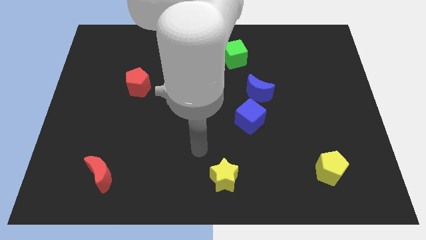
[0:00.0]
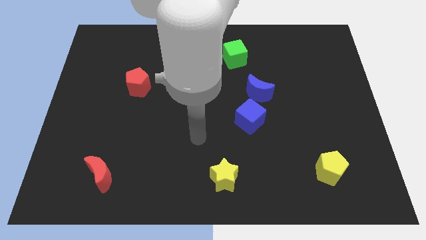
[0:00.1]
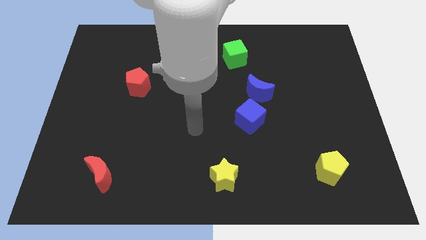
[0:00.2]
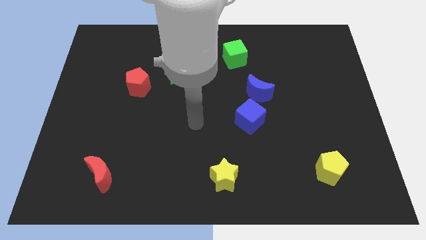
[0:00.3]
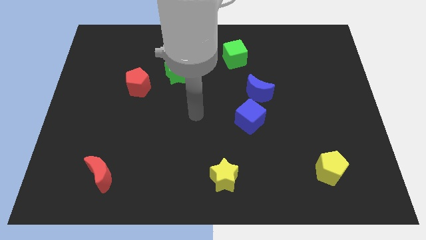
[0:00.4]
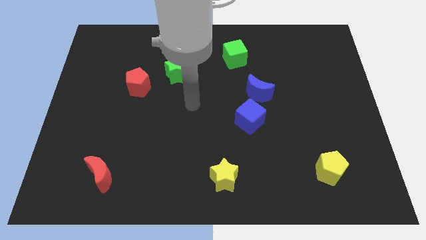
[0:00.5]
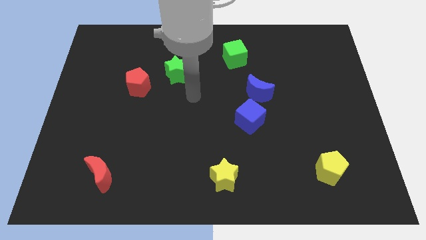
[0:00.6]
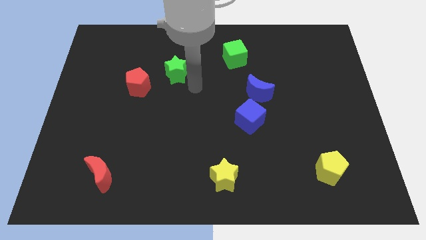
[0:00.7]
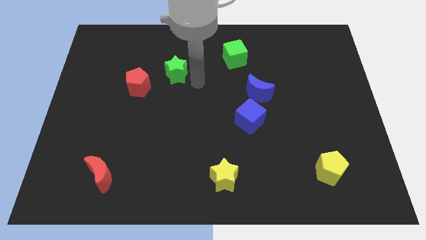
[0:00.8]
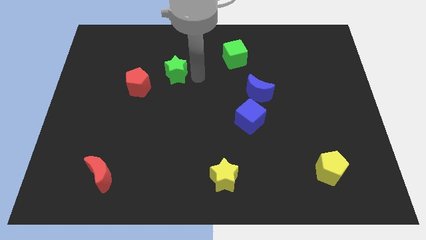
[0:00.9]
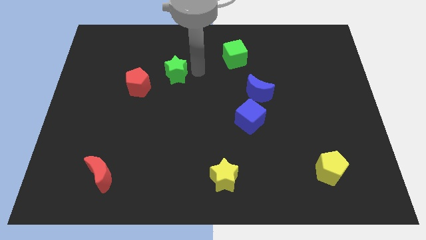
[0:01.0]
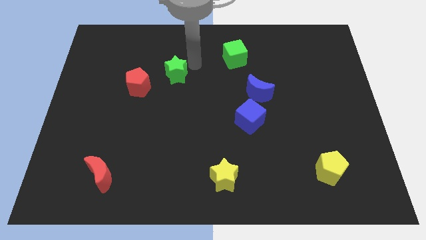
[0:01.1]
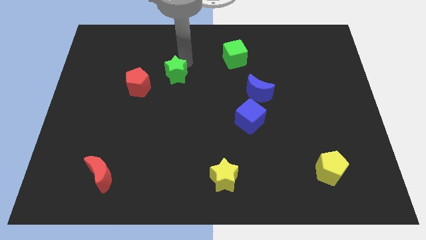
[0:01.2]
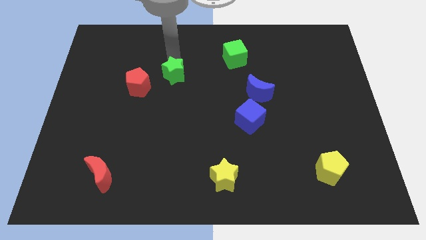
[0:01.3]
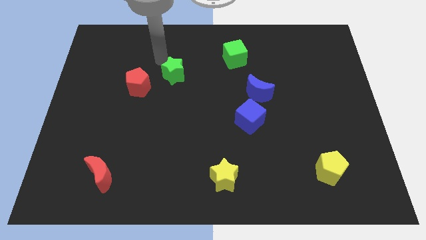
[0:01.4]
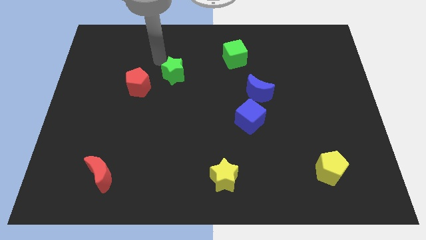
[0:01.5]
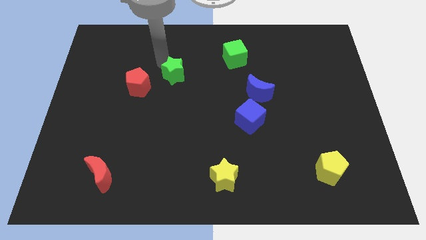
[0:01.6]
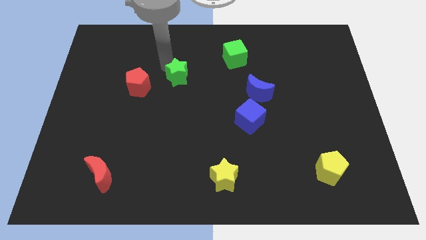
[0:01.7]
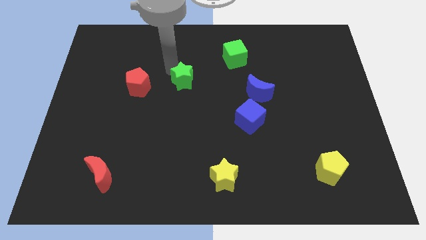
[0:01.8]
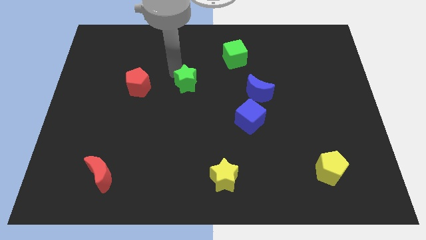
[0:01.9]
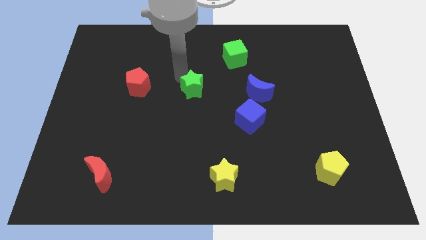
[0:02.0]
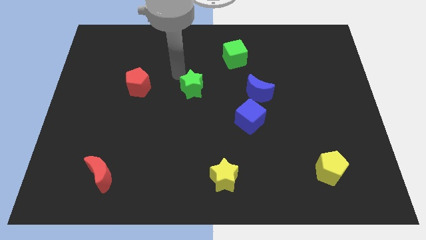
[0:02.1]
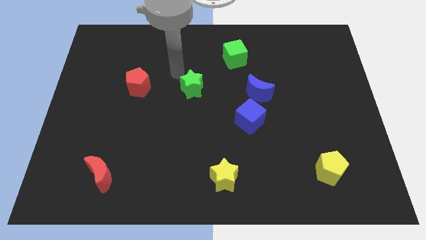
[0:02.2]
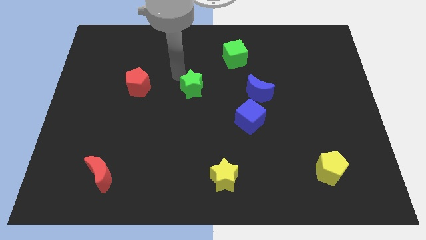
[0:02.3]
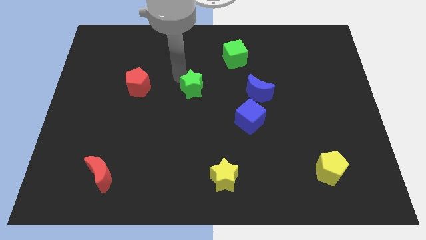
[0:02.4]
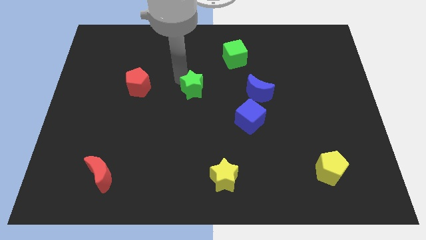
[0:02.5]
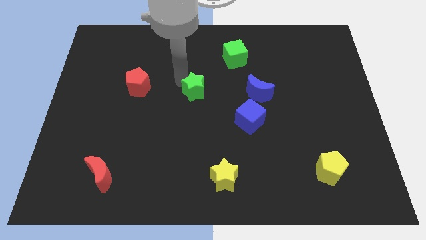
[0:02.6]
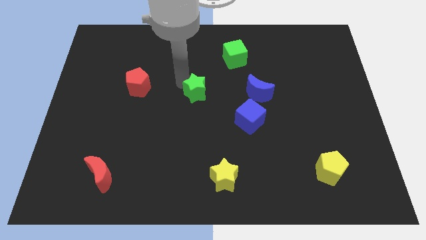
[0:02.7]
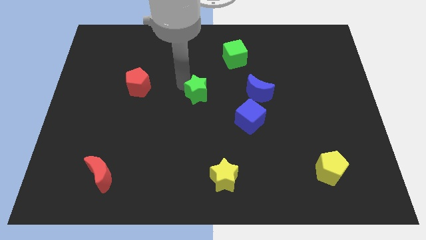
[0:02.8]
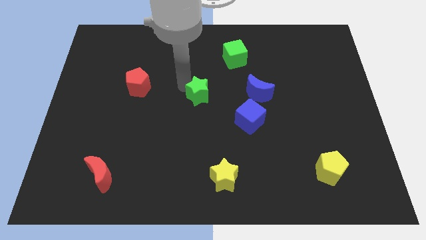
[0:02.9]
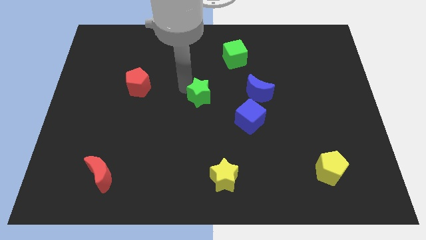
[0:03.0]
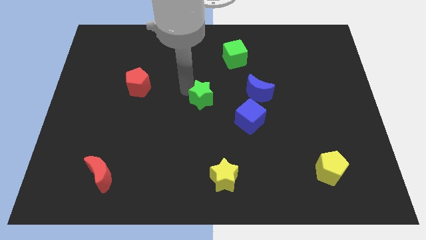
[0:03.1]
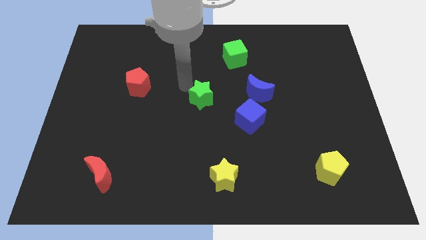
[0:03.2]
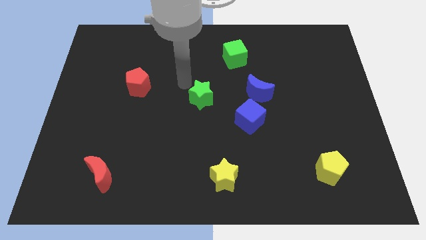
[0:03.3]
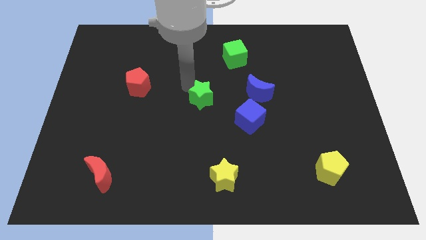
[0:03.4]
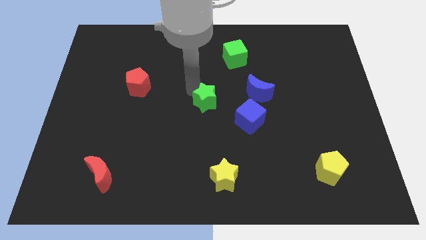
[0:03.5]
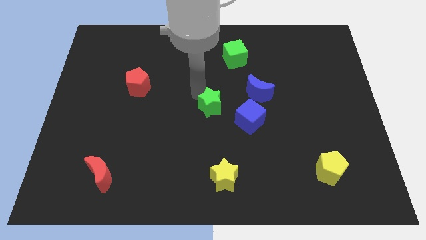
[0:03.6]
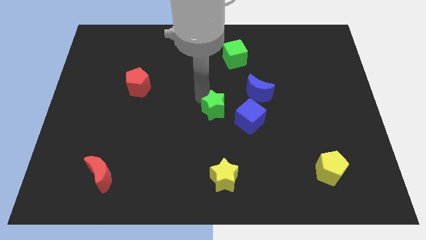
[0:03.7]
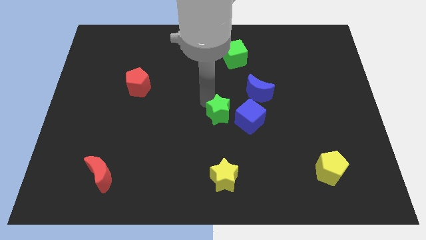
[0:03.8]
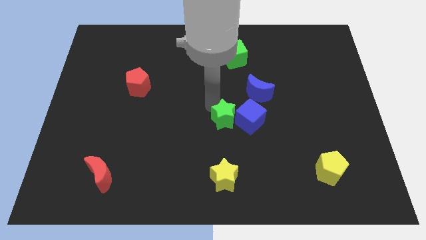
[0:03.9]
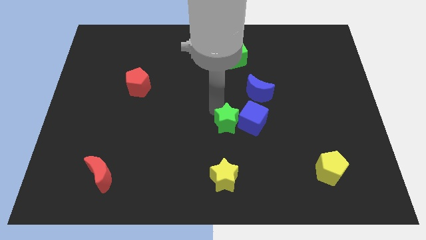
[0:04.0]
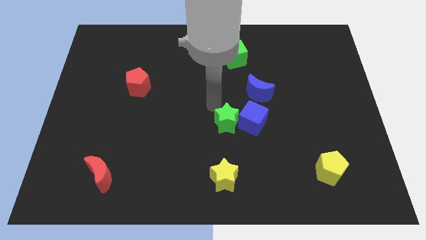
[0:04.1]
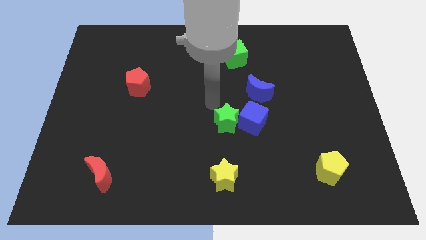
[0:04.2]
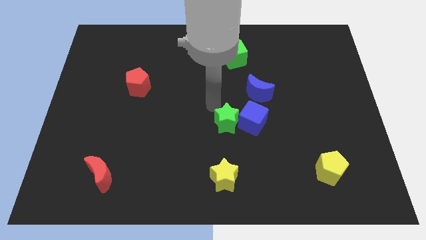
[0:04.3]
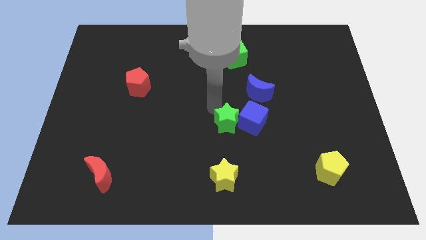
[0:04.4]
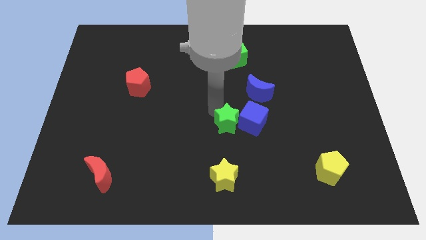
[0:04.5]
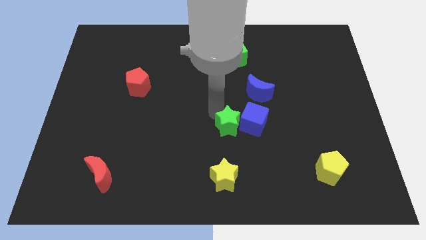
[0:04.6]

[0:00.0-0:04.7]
move the green star down and to the right

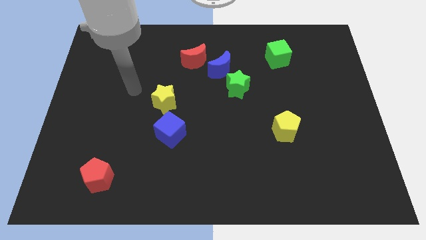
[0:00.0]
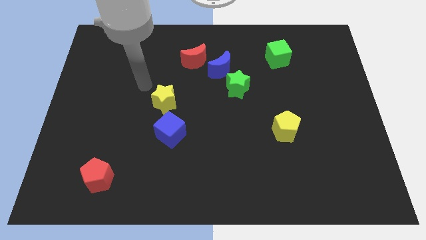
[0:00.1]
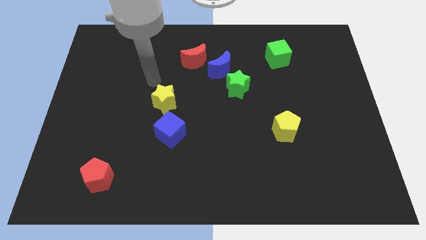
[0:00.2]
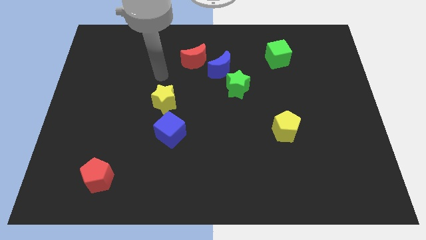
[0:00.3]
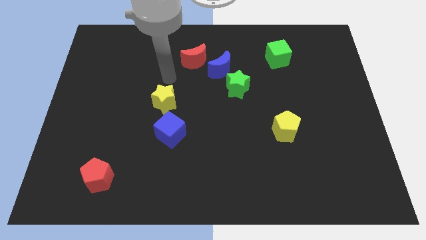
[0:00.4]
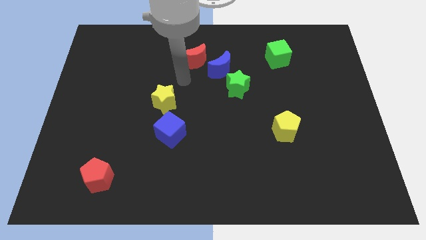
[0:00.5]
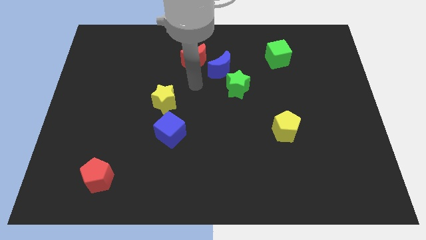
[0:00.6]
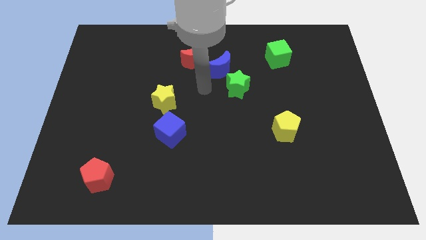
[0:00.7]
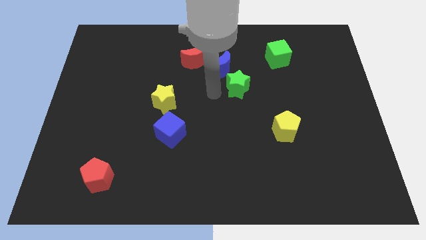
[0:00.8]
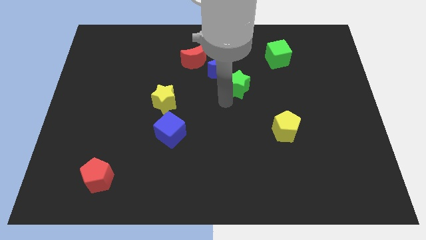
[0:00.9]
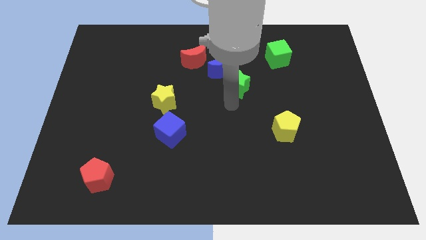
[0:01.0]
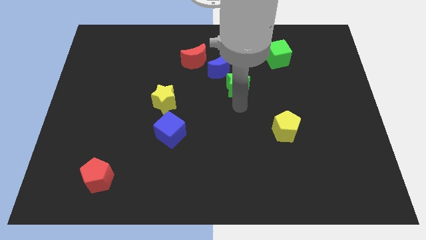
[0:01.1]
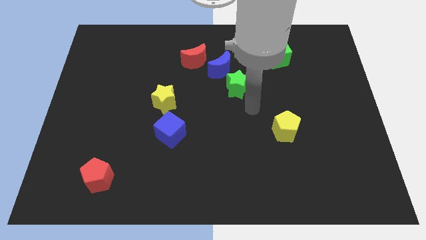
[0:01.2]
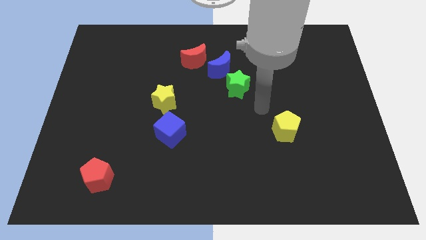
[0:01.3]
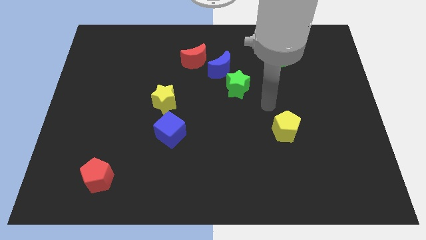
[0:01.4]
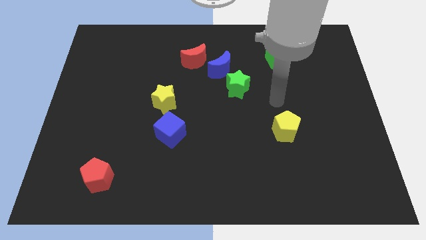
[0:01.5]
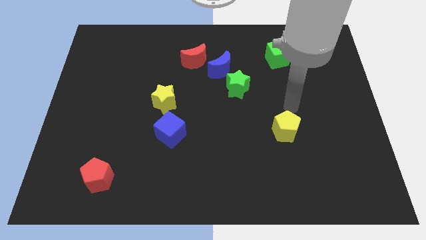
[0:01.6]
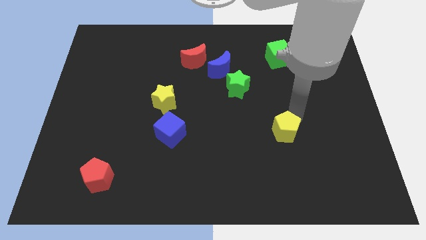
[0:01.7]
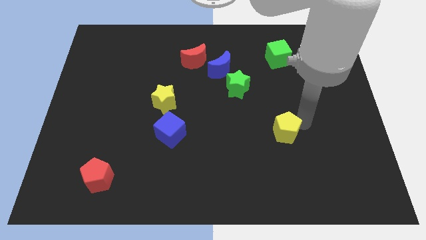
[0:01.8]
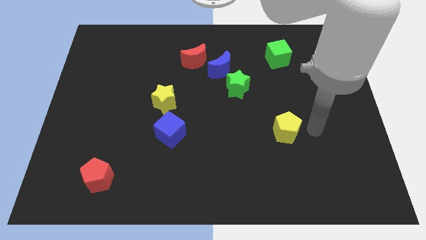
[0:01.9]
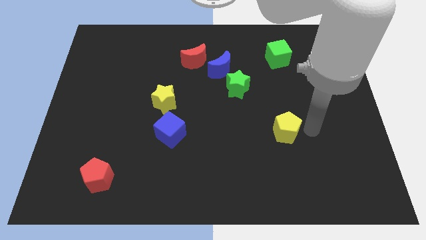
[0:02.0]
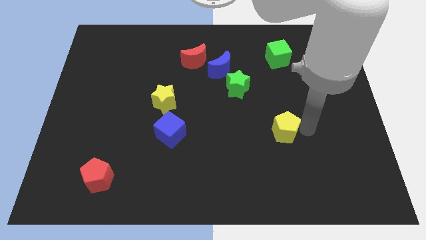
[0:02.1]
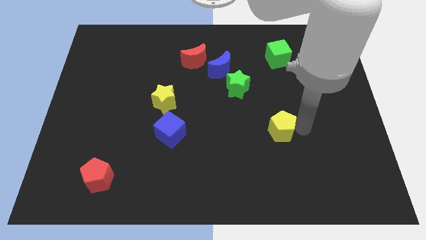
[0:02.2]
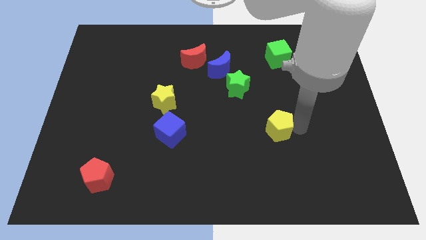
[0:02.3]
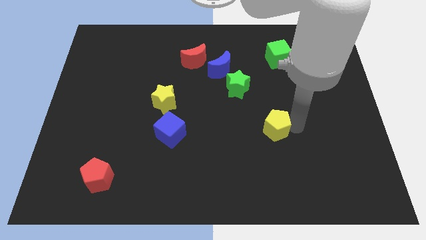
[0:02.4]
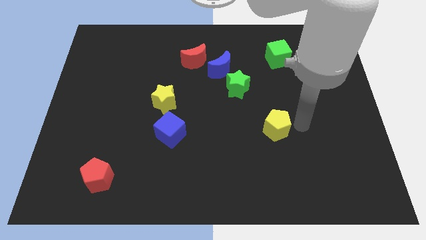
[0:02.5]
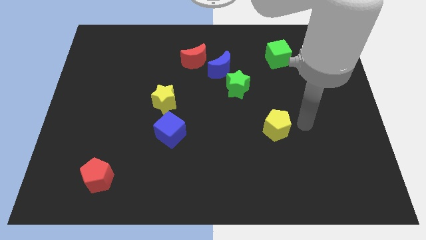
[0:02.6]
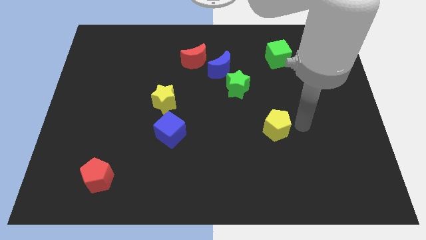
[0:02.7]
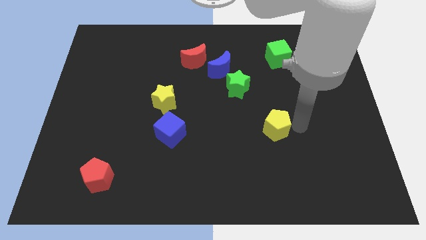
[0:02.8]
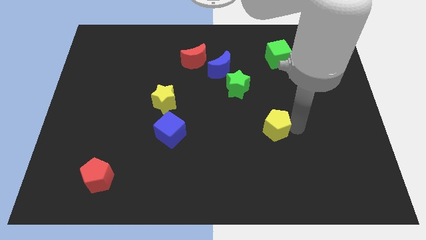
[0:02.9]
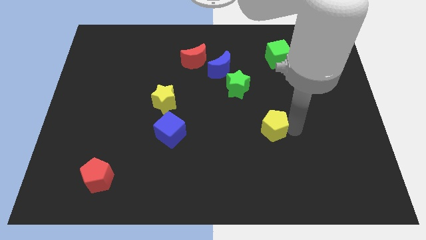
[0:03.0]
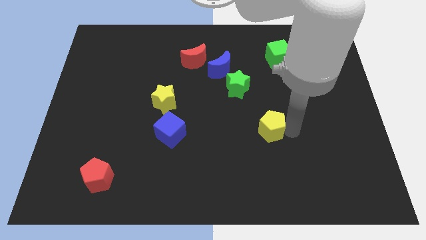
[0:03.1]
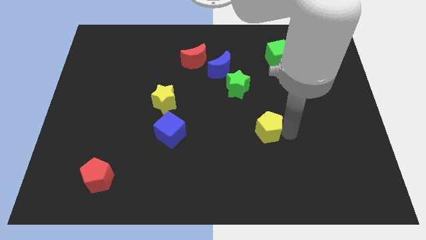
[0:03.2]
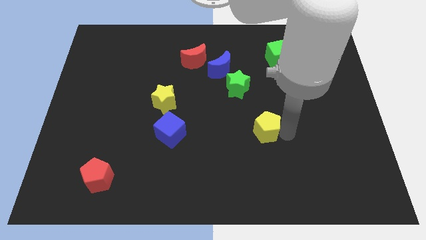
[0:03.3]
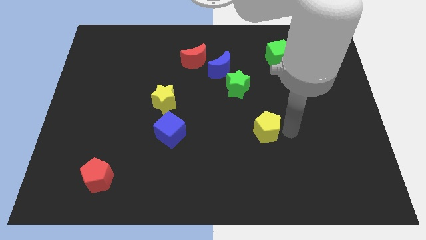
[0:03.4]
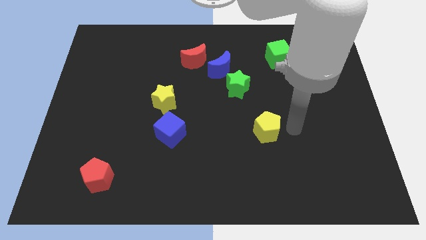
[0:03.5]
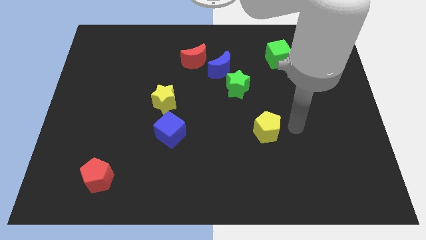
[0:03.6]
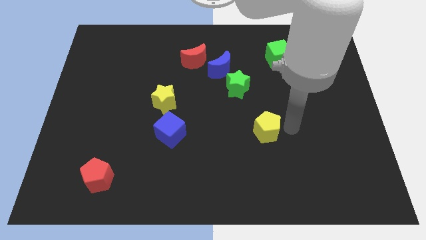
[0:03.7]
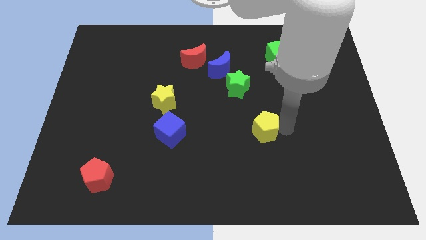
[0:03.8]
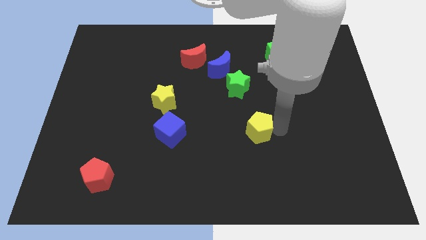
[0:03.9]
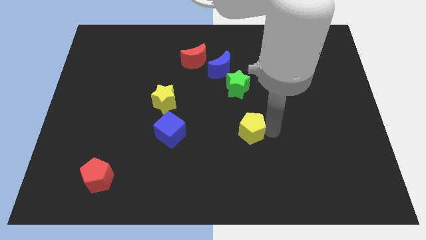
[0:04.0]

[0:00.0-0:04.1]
slide the yellow pentagon left a bit
